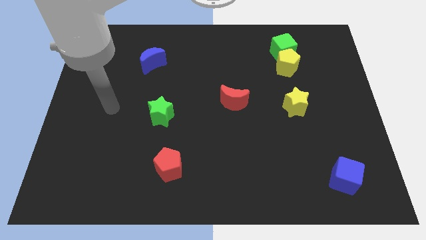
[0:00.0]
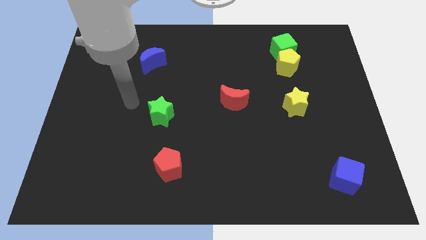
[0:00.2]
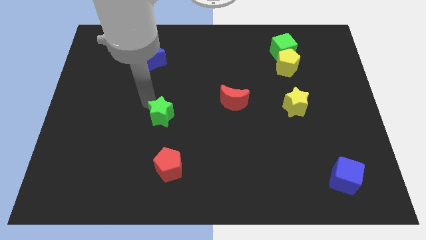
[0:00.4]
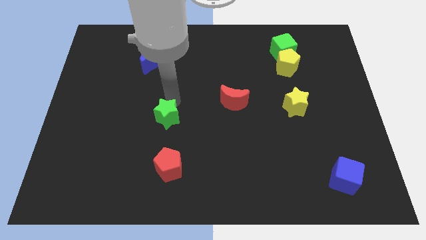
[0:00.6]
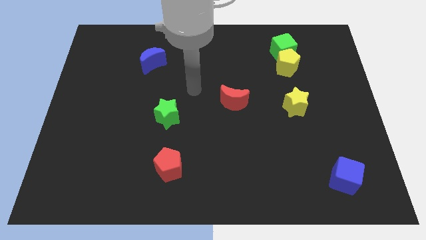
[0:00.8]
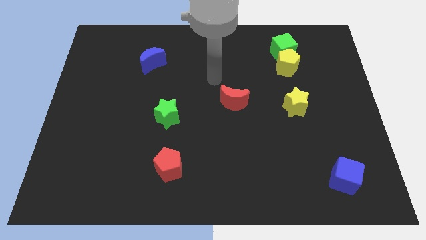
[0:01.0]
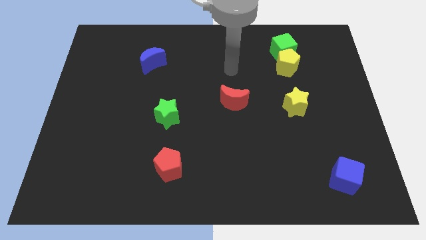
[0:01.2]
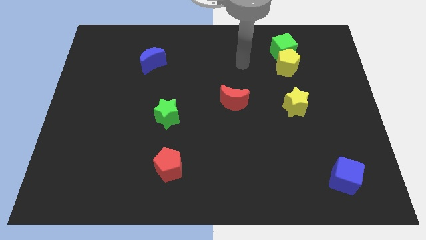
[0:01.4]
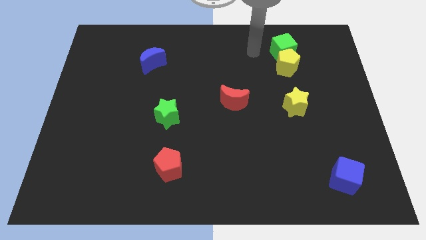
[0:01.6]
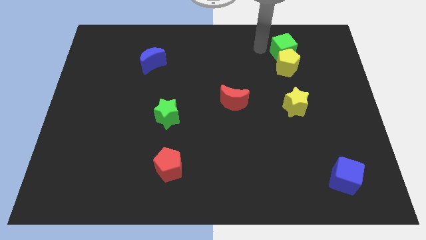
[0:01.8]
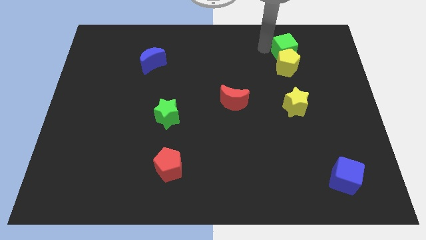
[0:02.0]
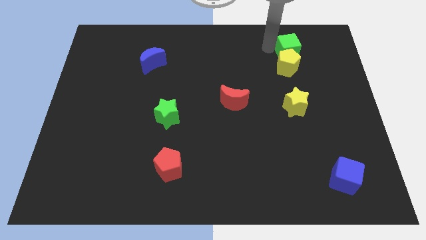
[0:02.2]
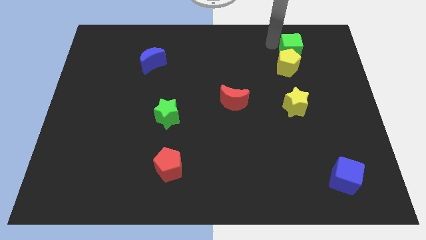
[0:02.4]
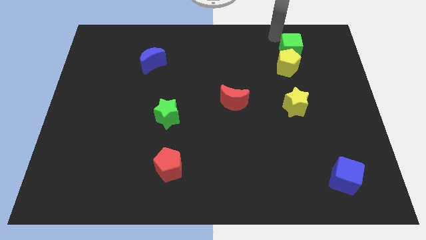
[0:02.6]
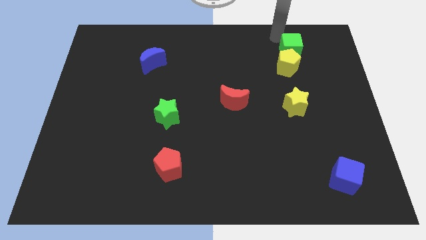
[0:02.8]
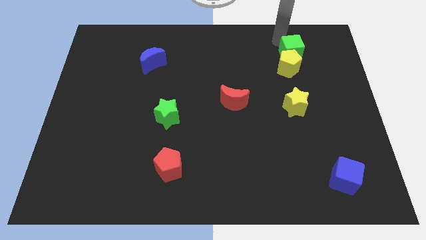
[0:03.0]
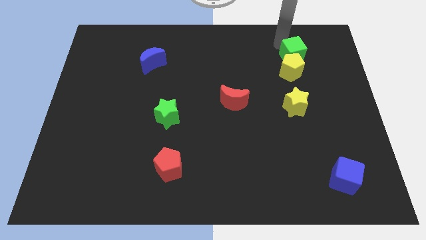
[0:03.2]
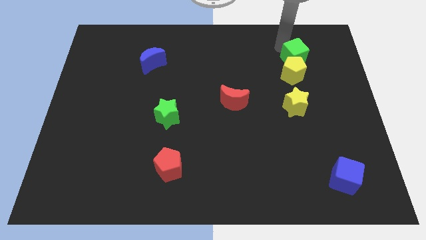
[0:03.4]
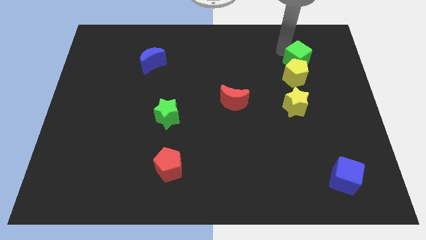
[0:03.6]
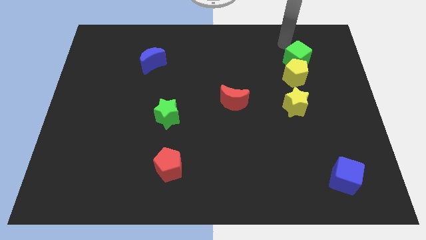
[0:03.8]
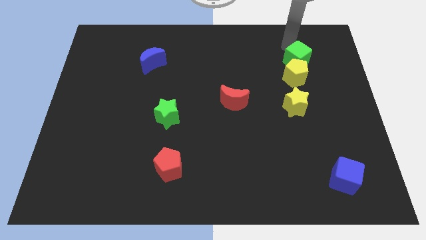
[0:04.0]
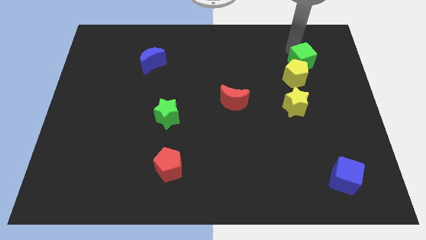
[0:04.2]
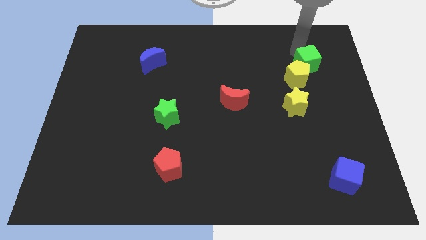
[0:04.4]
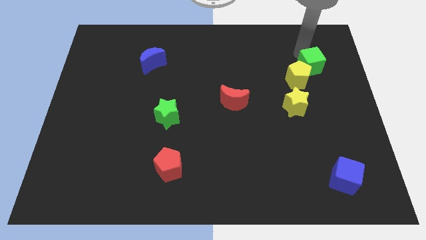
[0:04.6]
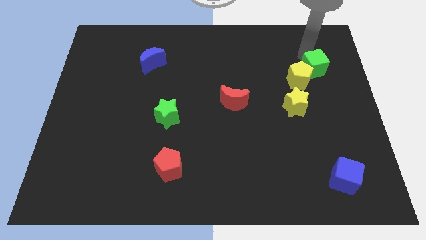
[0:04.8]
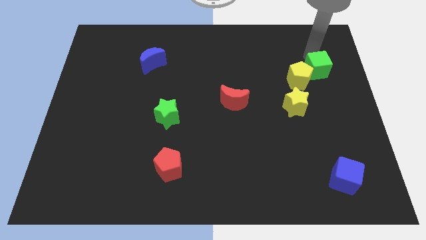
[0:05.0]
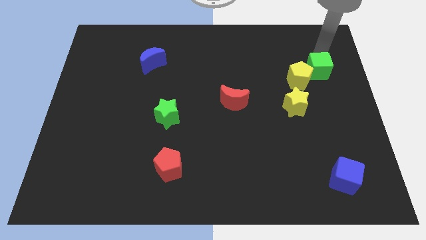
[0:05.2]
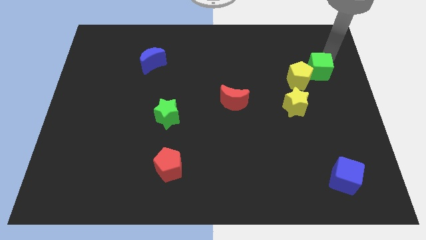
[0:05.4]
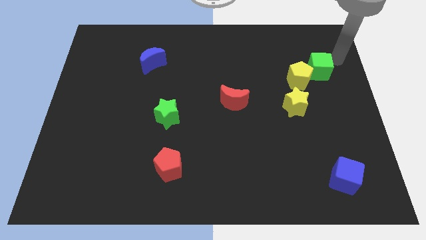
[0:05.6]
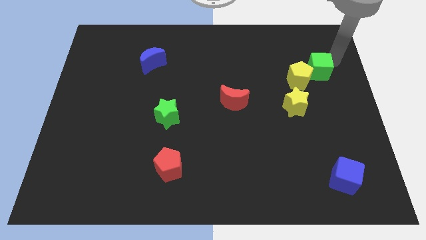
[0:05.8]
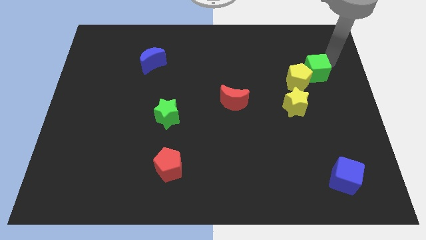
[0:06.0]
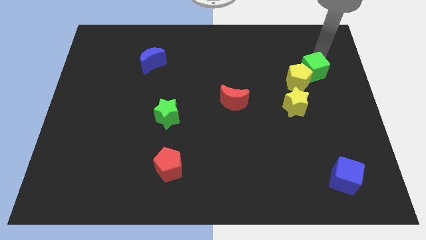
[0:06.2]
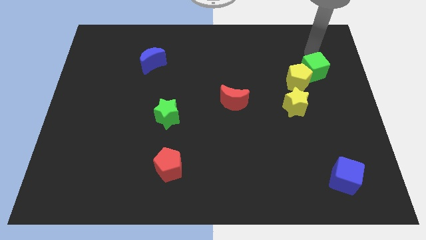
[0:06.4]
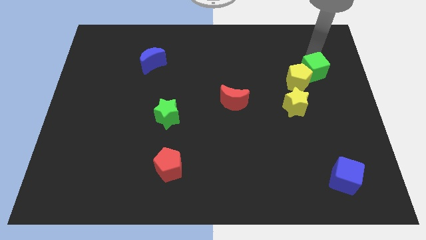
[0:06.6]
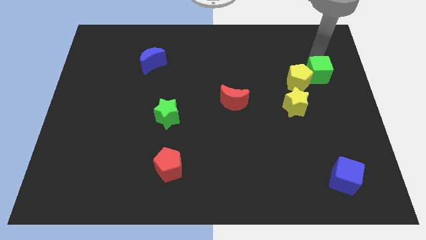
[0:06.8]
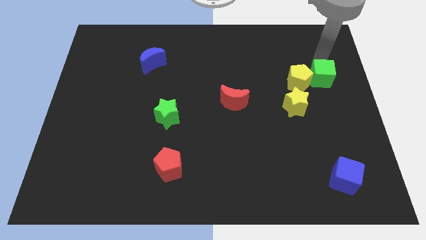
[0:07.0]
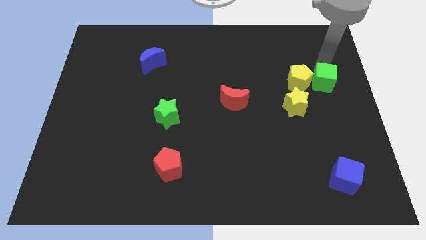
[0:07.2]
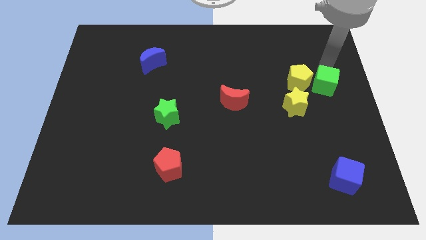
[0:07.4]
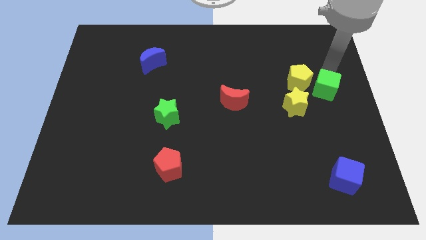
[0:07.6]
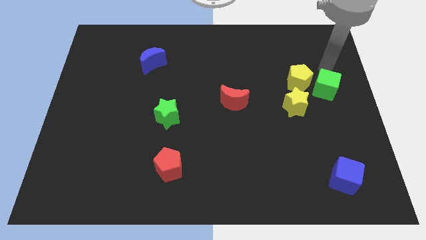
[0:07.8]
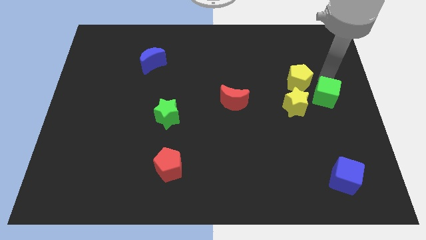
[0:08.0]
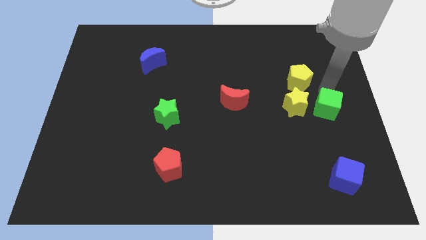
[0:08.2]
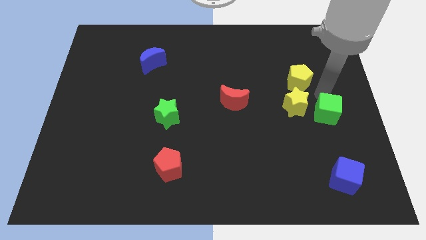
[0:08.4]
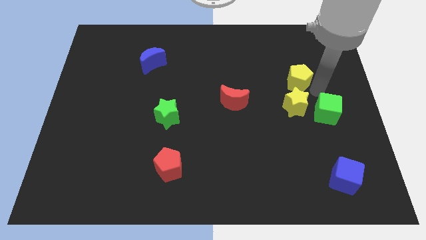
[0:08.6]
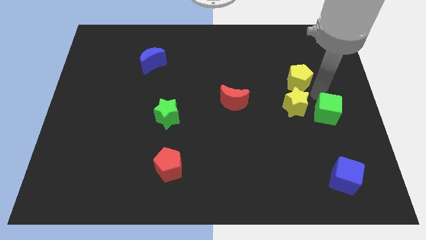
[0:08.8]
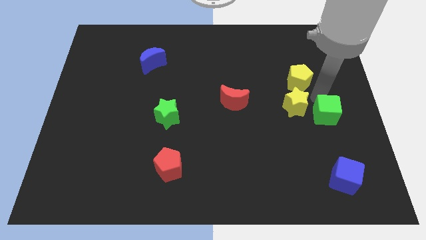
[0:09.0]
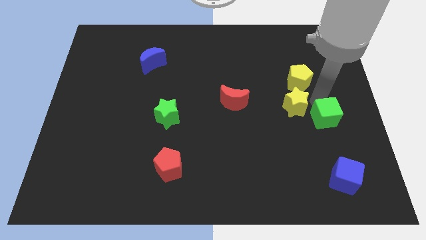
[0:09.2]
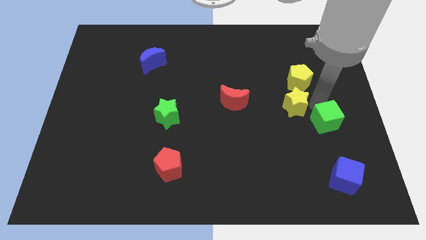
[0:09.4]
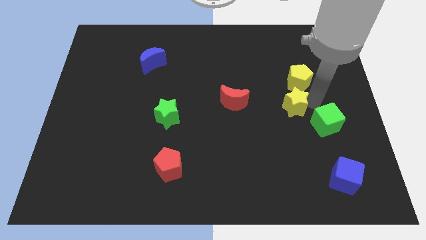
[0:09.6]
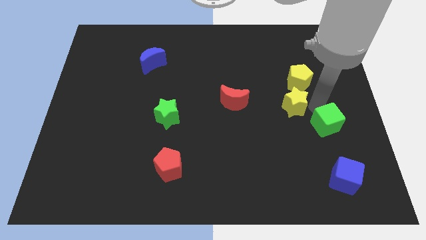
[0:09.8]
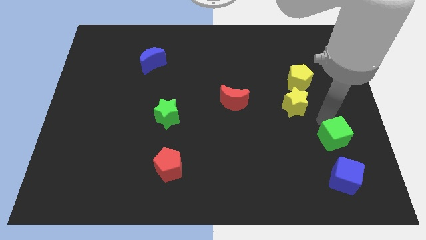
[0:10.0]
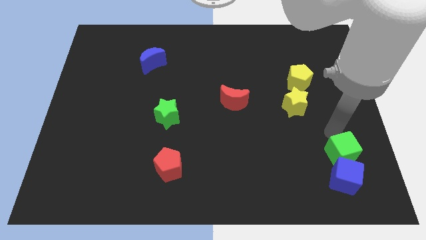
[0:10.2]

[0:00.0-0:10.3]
move the green cube close to the blue cube

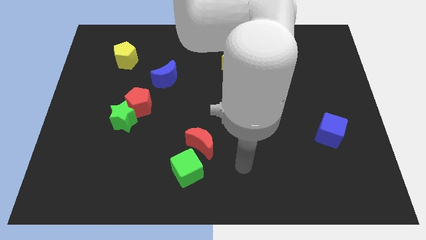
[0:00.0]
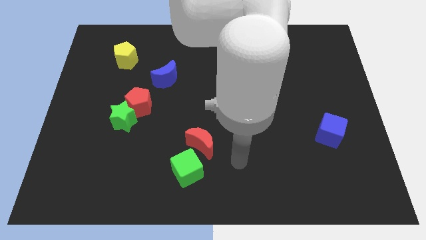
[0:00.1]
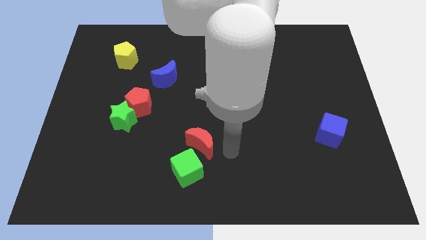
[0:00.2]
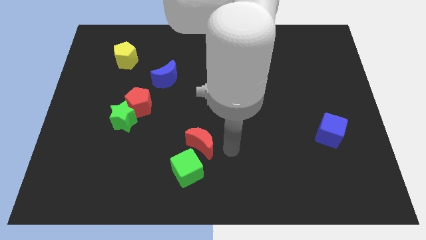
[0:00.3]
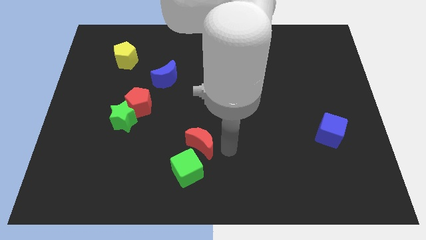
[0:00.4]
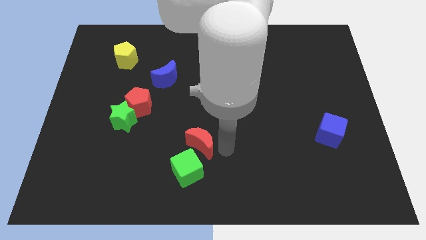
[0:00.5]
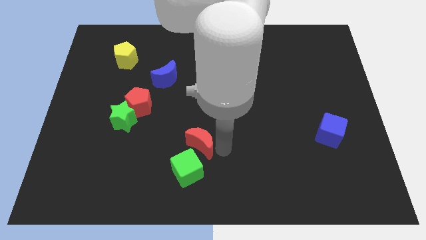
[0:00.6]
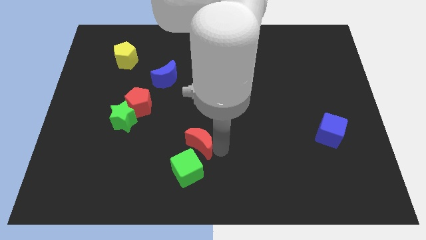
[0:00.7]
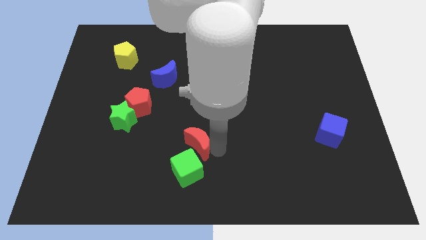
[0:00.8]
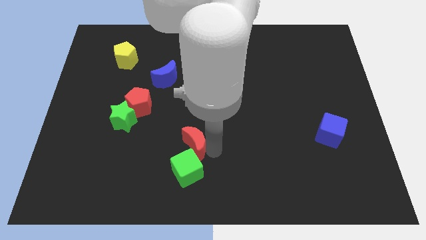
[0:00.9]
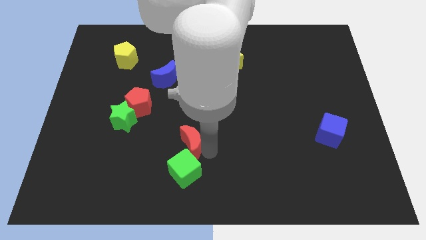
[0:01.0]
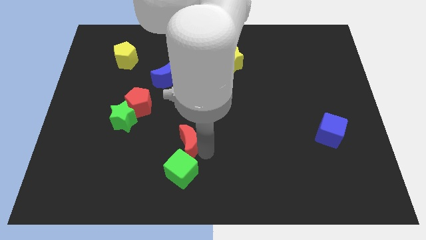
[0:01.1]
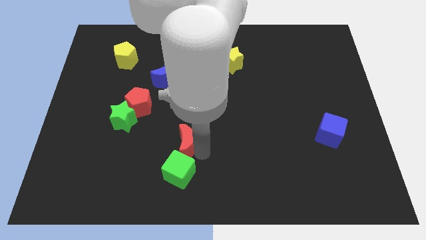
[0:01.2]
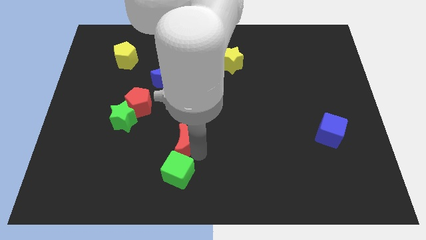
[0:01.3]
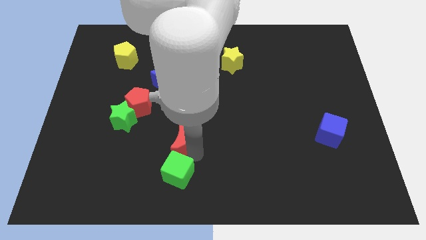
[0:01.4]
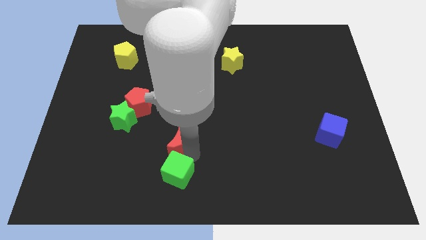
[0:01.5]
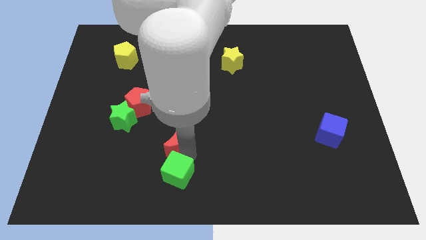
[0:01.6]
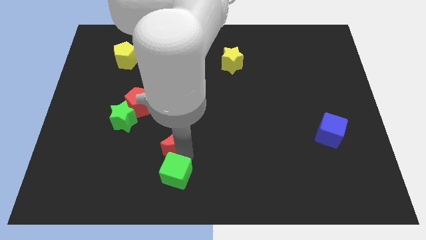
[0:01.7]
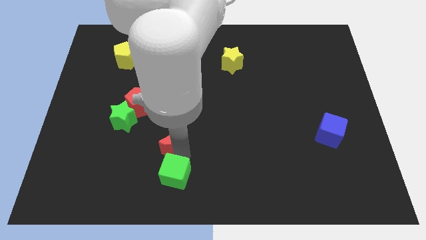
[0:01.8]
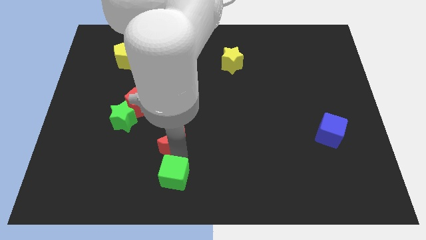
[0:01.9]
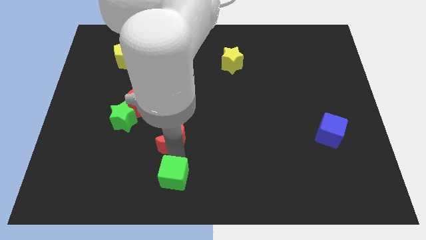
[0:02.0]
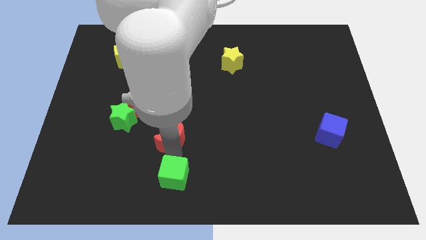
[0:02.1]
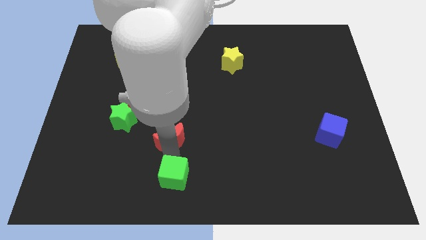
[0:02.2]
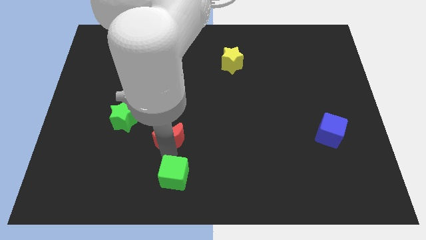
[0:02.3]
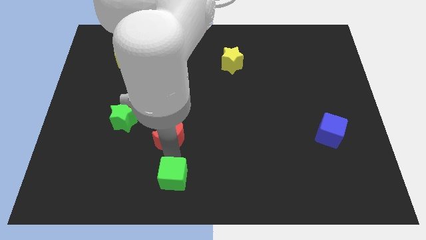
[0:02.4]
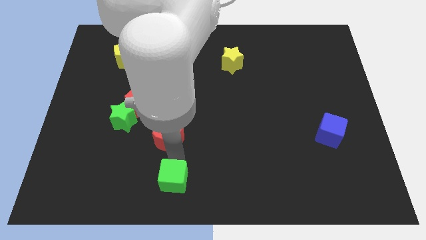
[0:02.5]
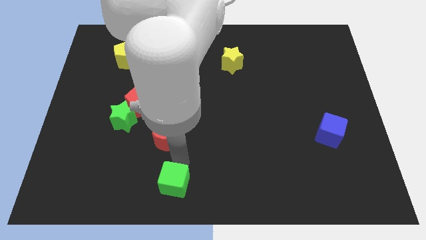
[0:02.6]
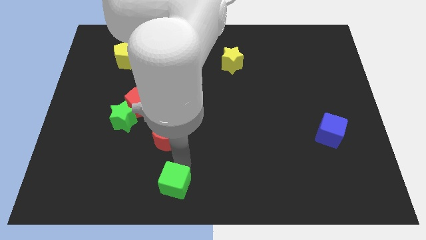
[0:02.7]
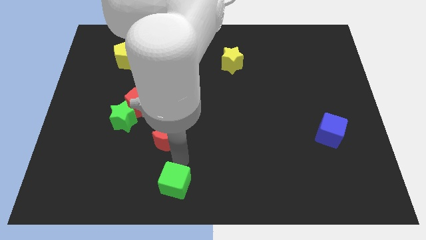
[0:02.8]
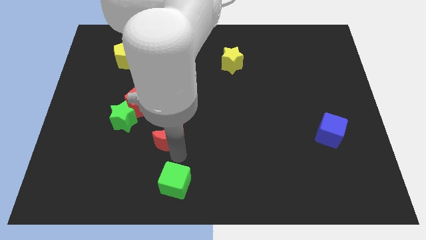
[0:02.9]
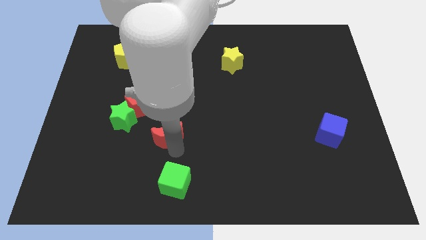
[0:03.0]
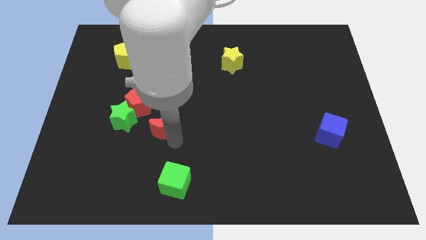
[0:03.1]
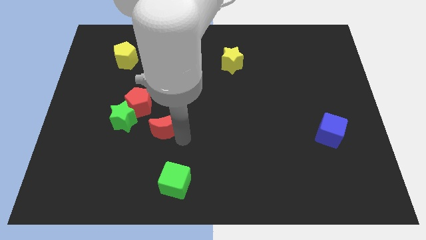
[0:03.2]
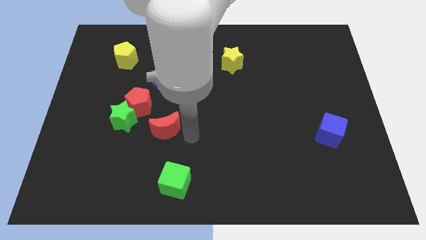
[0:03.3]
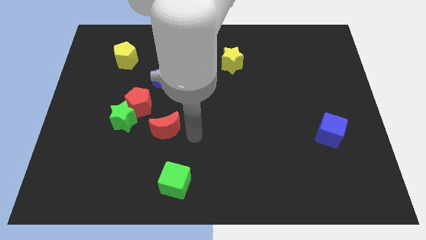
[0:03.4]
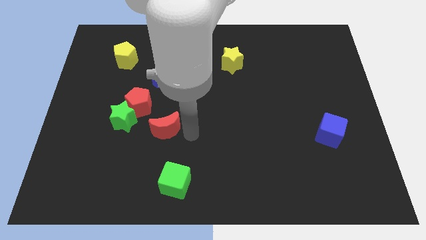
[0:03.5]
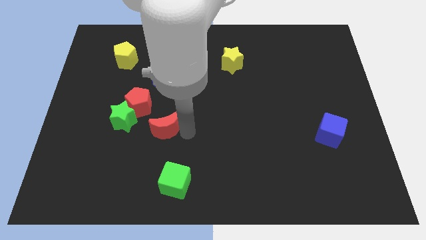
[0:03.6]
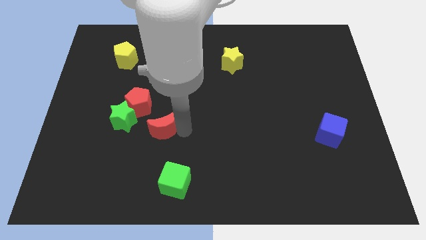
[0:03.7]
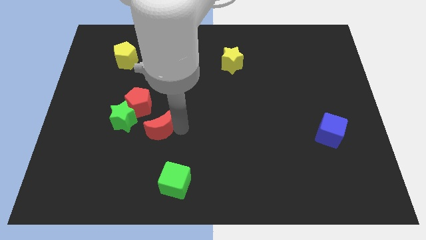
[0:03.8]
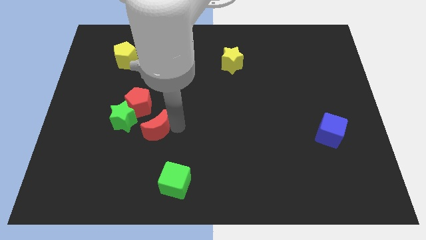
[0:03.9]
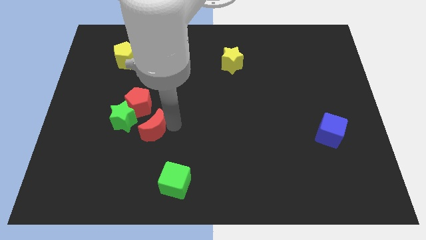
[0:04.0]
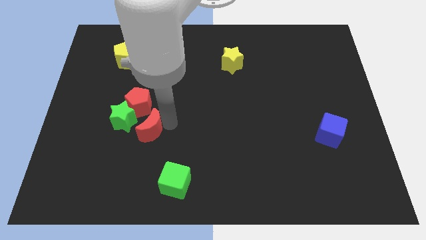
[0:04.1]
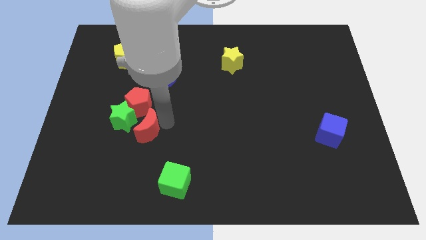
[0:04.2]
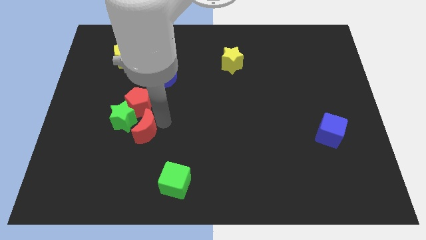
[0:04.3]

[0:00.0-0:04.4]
push the red moon close to the green star
